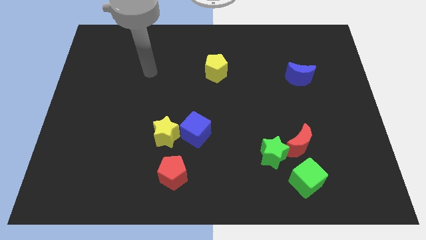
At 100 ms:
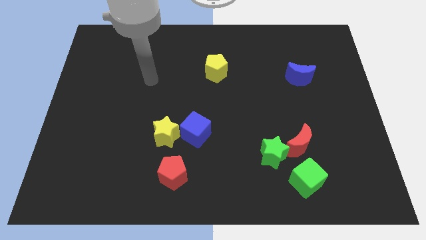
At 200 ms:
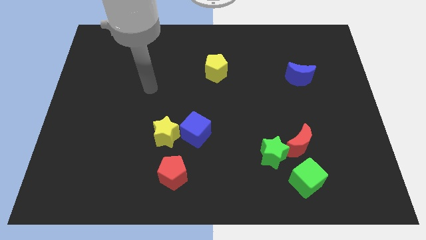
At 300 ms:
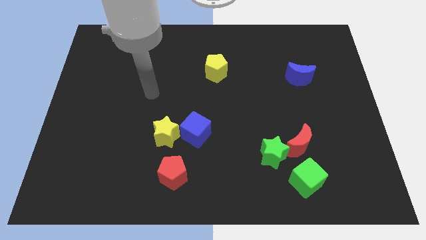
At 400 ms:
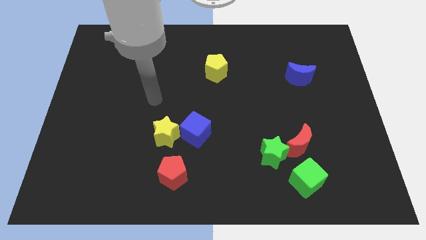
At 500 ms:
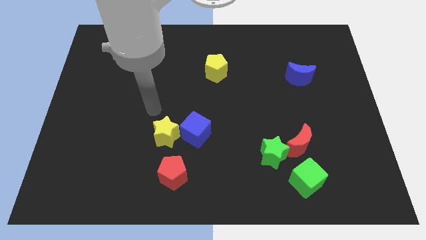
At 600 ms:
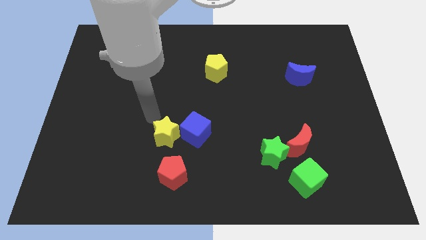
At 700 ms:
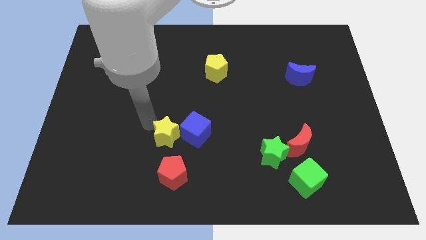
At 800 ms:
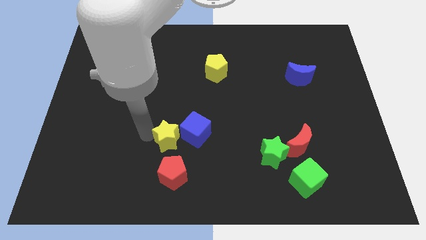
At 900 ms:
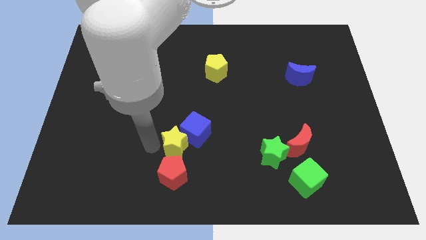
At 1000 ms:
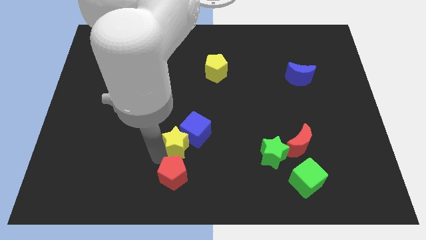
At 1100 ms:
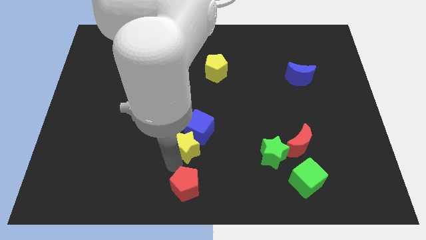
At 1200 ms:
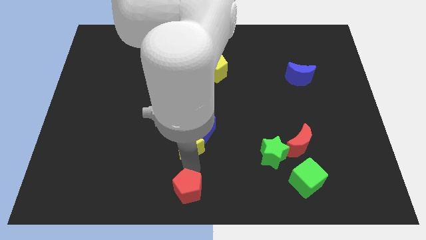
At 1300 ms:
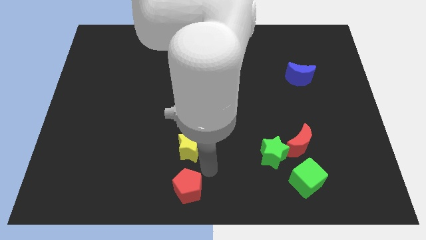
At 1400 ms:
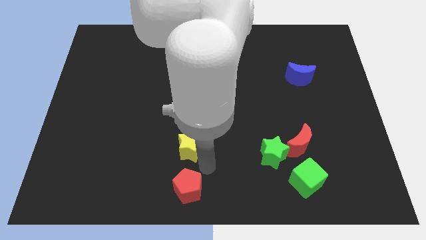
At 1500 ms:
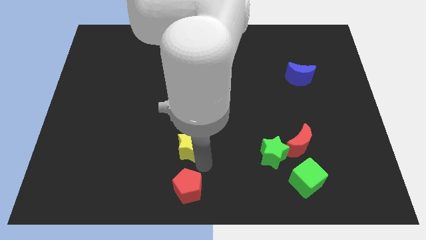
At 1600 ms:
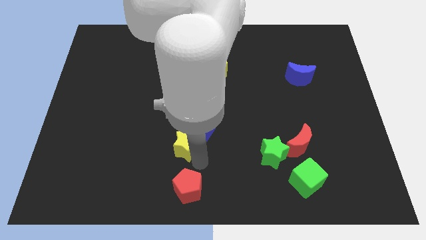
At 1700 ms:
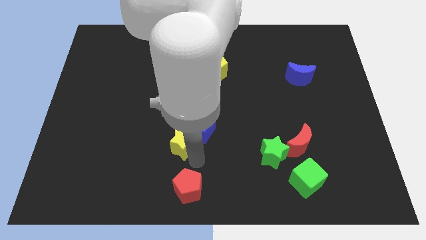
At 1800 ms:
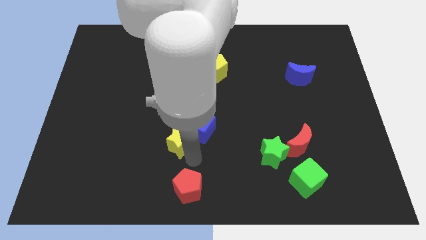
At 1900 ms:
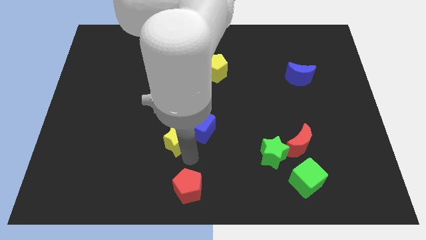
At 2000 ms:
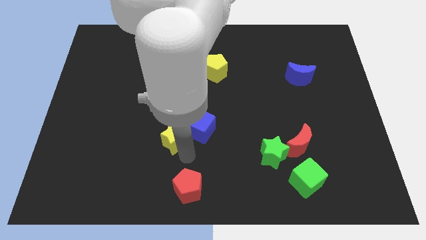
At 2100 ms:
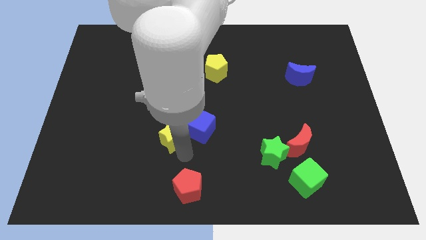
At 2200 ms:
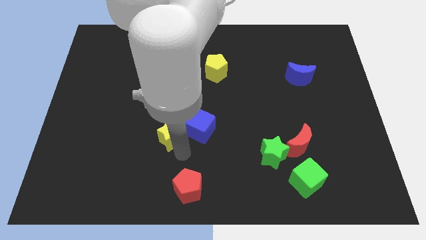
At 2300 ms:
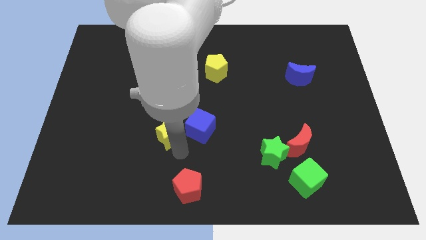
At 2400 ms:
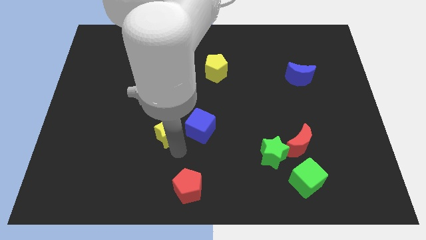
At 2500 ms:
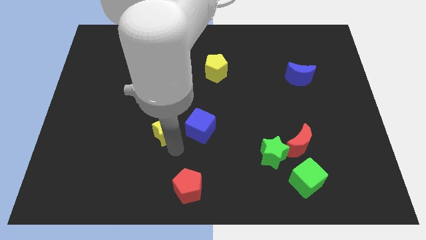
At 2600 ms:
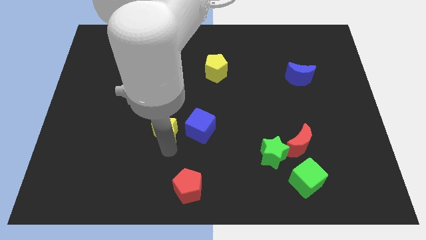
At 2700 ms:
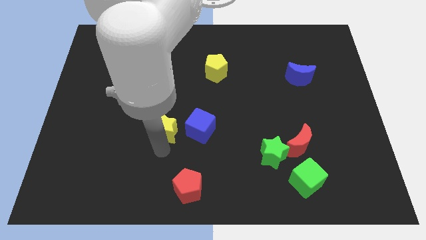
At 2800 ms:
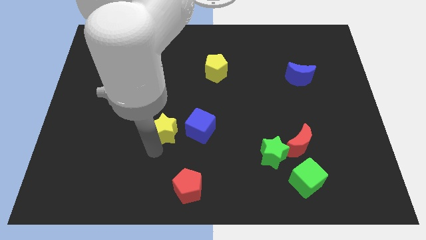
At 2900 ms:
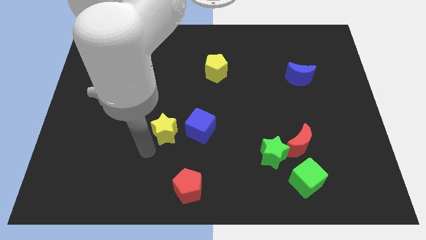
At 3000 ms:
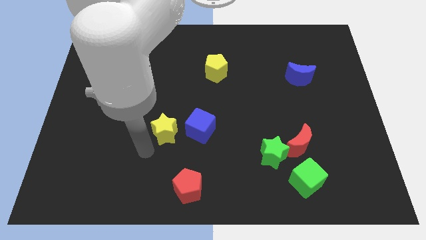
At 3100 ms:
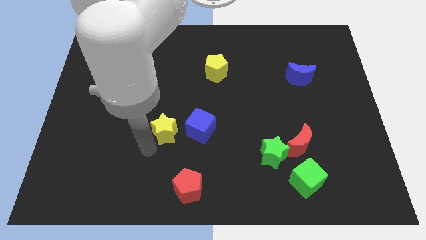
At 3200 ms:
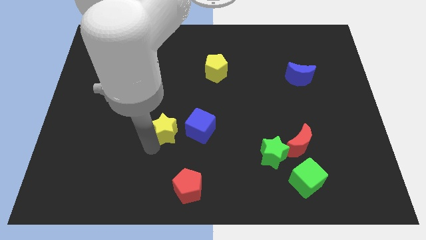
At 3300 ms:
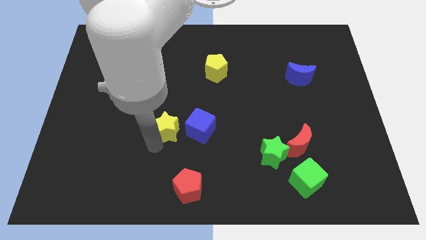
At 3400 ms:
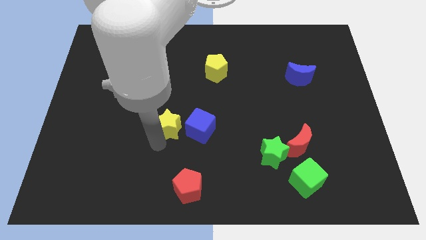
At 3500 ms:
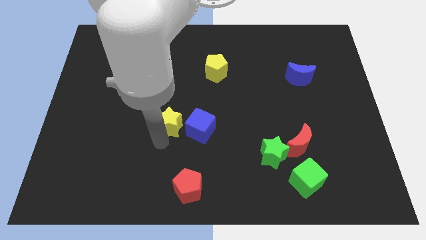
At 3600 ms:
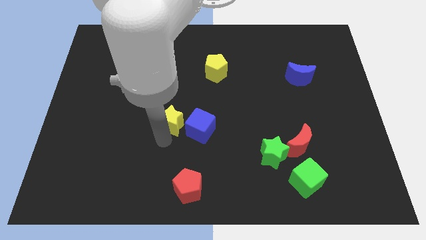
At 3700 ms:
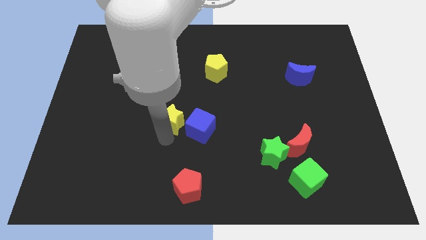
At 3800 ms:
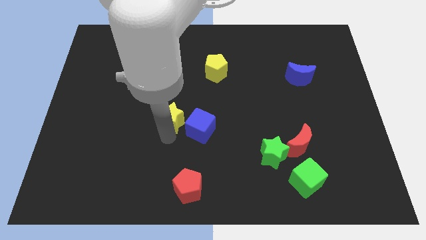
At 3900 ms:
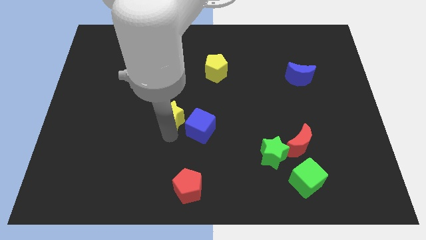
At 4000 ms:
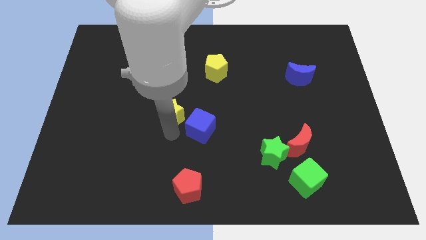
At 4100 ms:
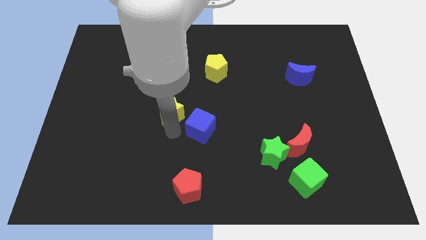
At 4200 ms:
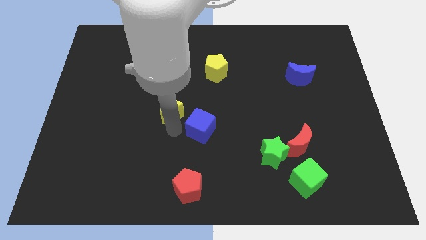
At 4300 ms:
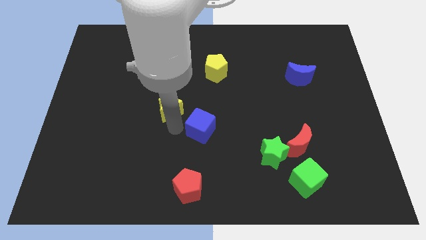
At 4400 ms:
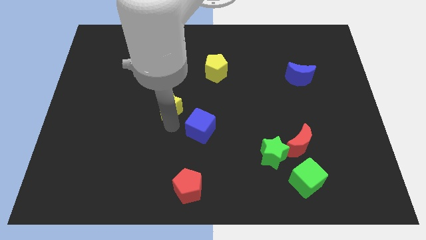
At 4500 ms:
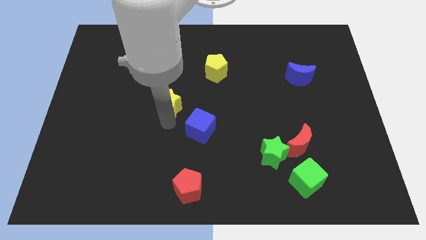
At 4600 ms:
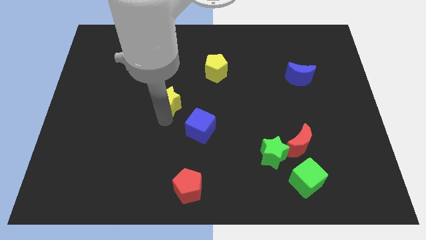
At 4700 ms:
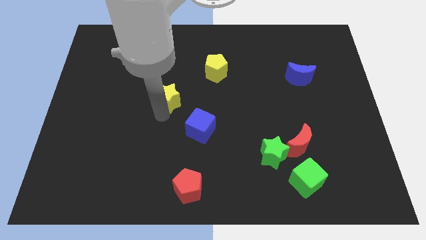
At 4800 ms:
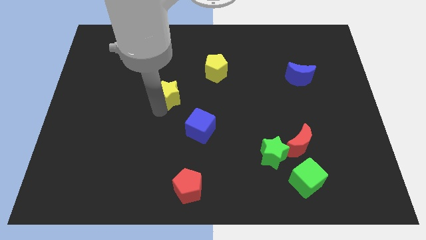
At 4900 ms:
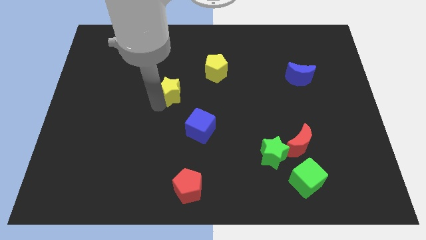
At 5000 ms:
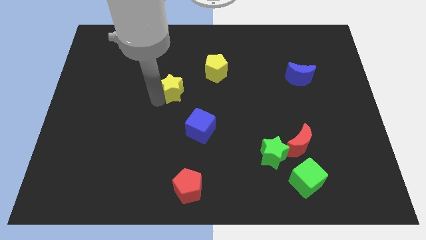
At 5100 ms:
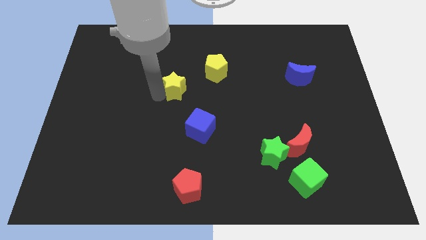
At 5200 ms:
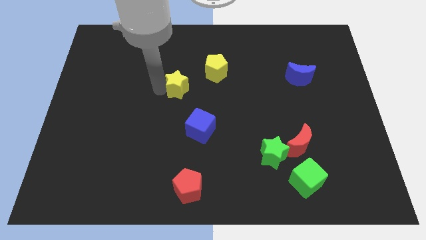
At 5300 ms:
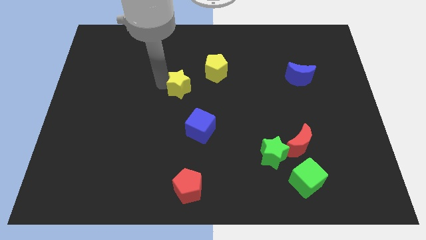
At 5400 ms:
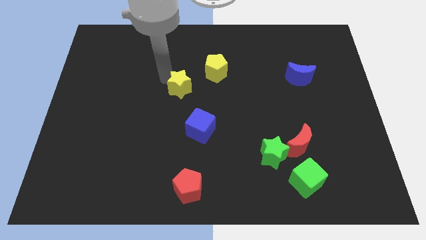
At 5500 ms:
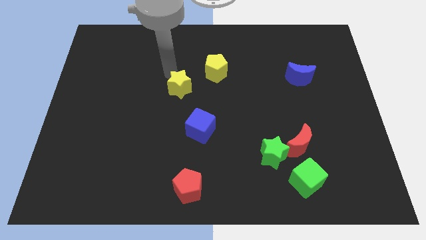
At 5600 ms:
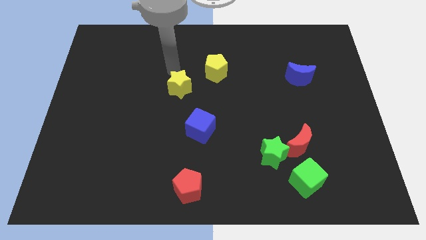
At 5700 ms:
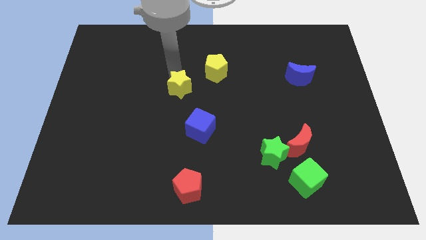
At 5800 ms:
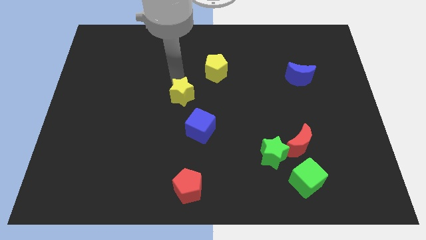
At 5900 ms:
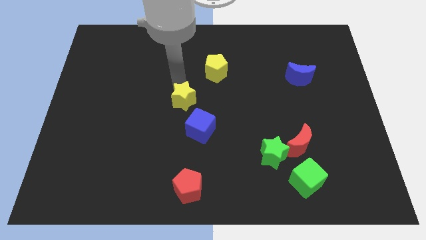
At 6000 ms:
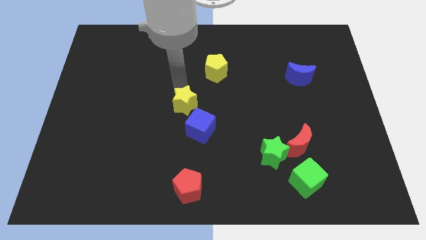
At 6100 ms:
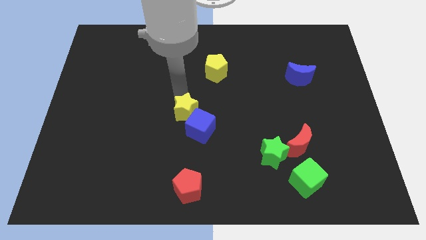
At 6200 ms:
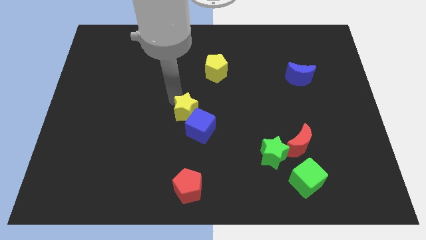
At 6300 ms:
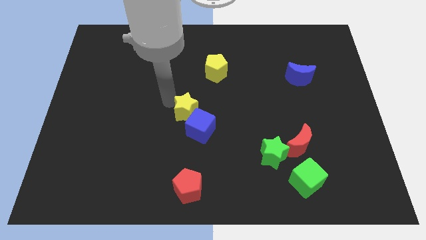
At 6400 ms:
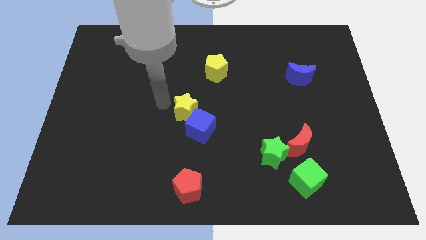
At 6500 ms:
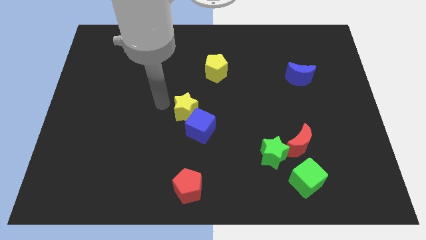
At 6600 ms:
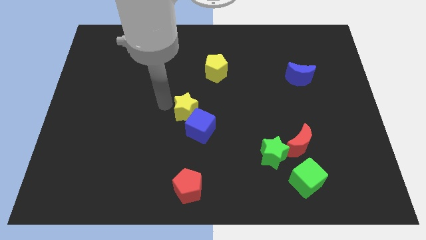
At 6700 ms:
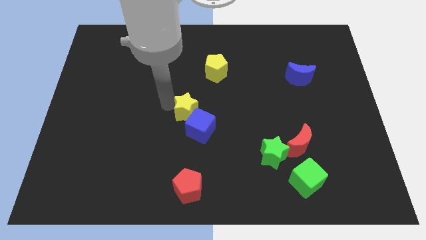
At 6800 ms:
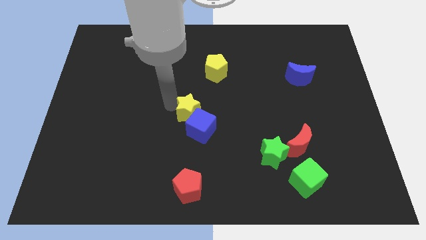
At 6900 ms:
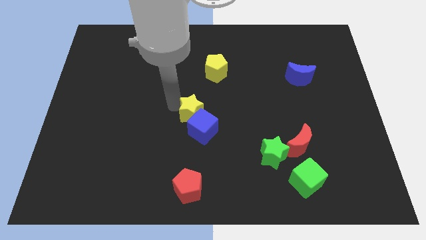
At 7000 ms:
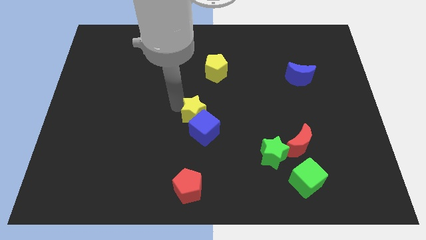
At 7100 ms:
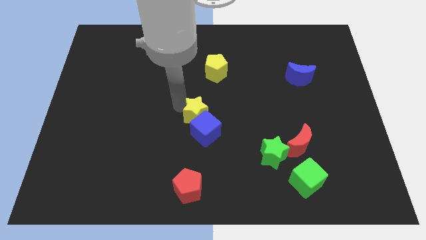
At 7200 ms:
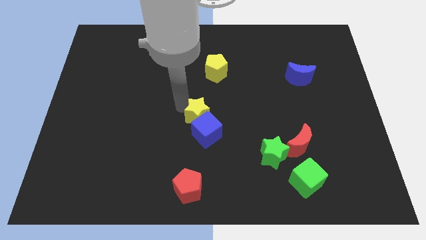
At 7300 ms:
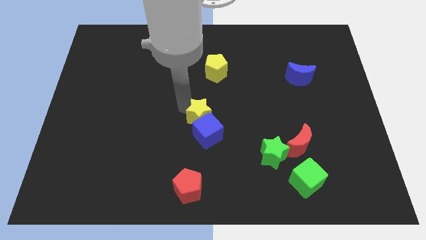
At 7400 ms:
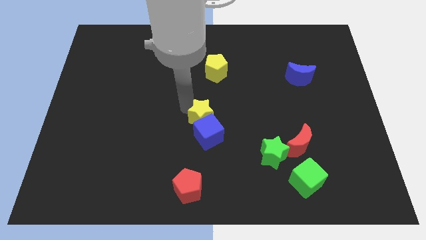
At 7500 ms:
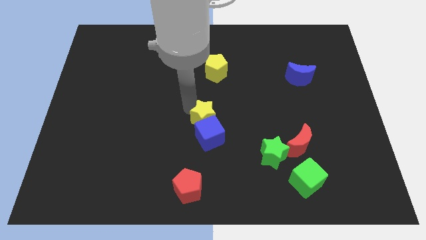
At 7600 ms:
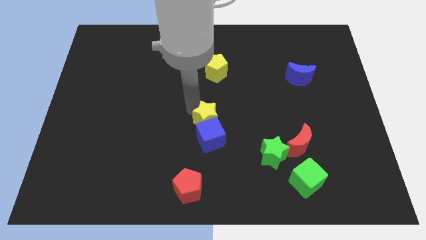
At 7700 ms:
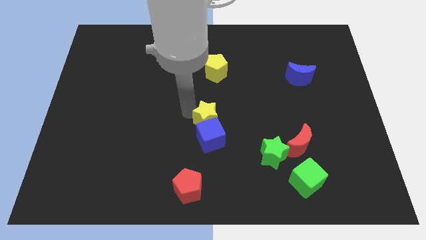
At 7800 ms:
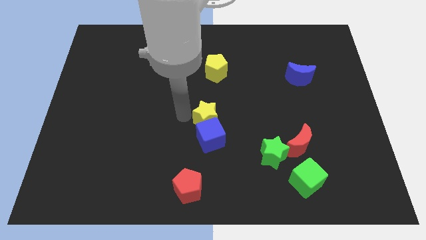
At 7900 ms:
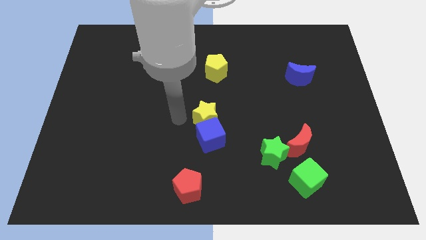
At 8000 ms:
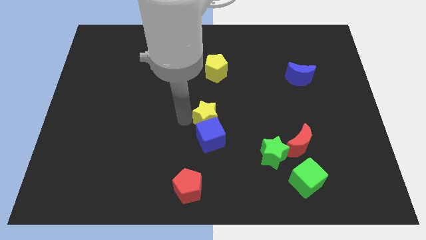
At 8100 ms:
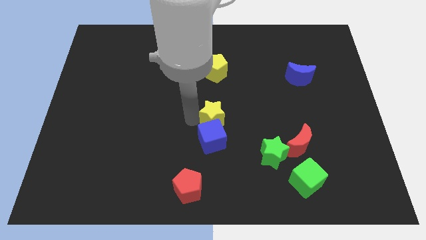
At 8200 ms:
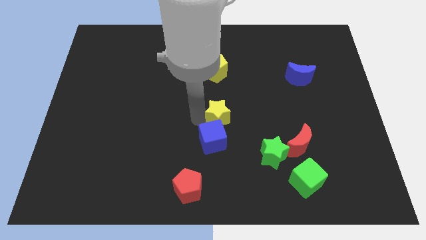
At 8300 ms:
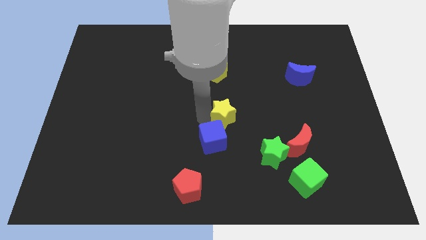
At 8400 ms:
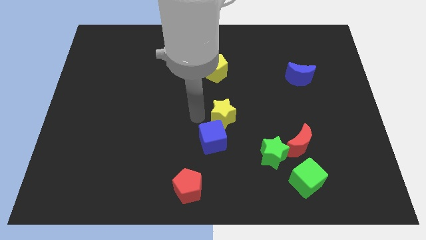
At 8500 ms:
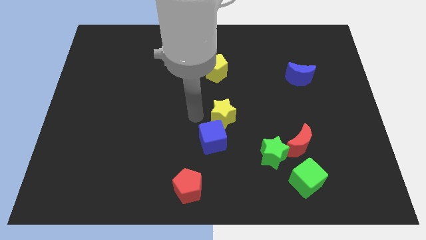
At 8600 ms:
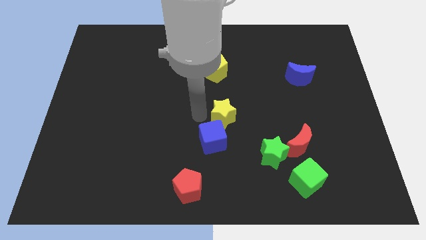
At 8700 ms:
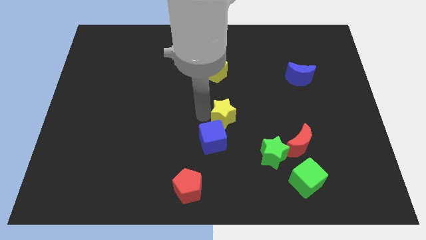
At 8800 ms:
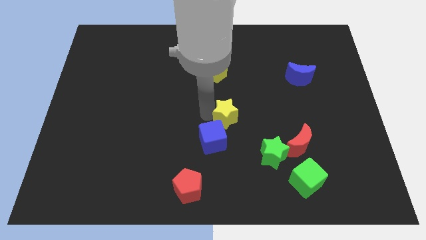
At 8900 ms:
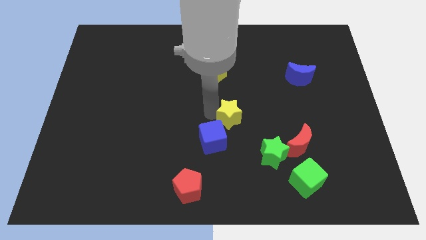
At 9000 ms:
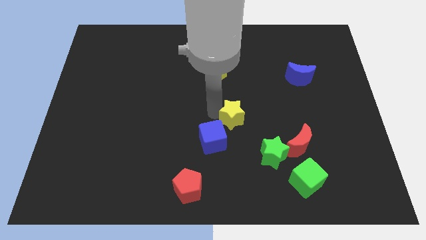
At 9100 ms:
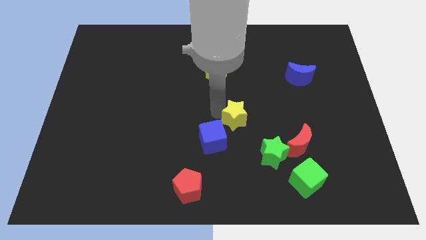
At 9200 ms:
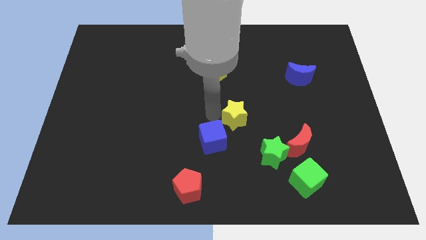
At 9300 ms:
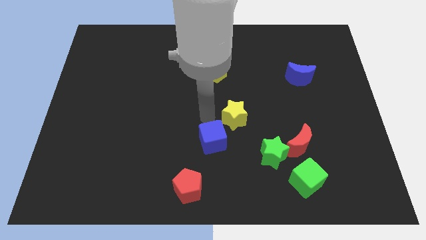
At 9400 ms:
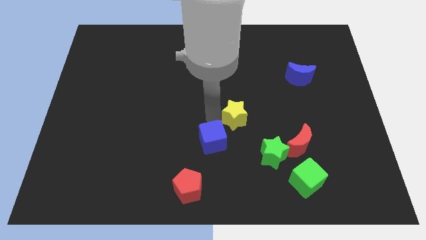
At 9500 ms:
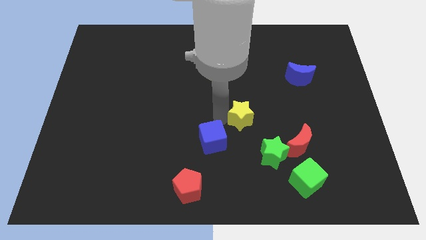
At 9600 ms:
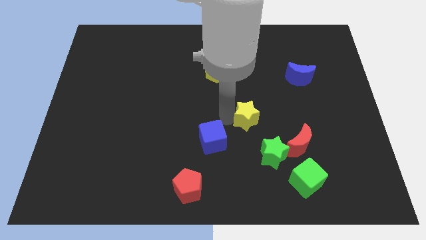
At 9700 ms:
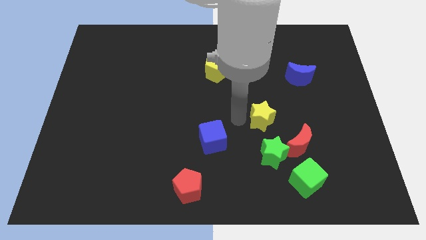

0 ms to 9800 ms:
push the yellow star right
